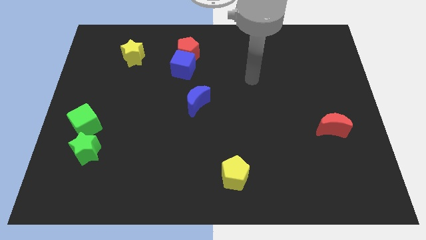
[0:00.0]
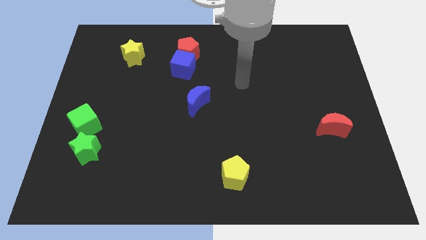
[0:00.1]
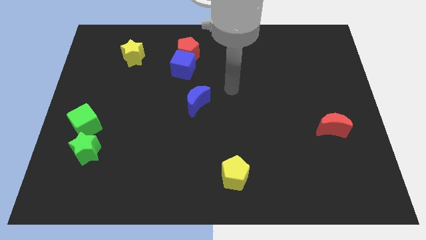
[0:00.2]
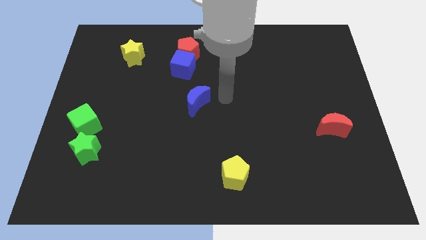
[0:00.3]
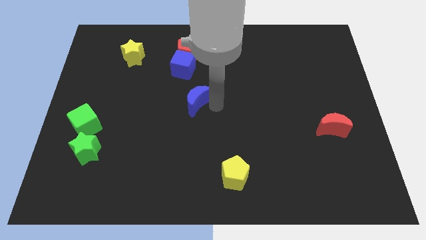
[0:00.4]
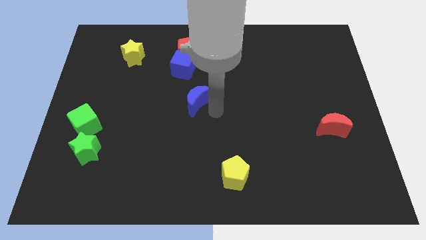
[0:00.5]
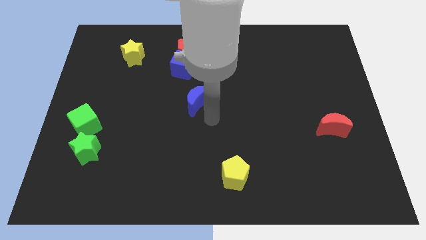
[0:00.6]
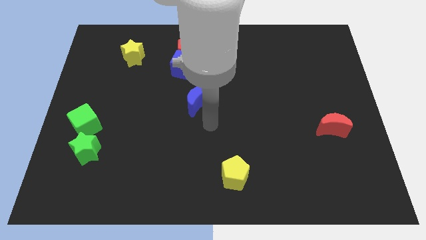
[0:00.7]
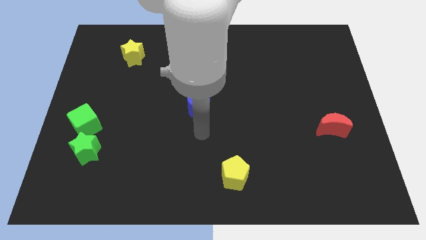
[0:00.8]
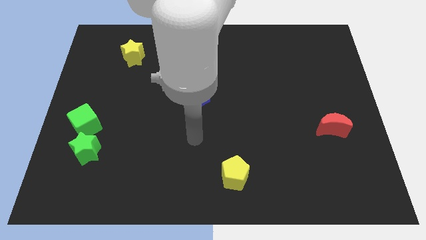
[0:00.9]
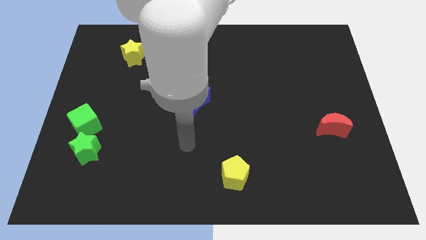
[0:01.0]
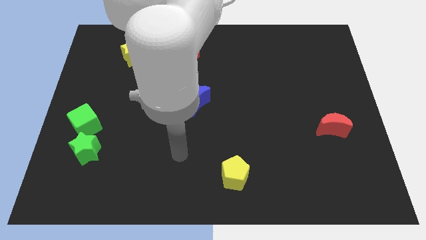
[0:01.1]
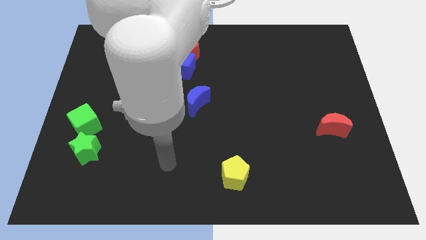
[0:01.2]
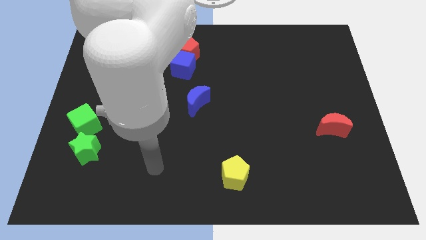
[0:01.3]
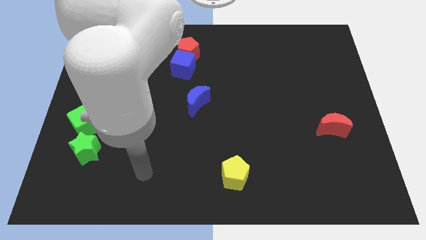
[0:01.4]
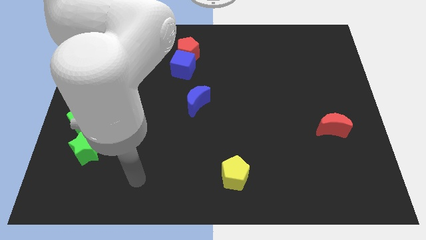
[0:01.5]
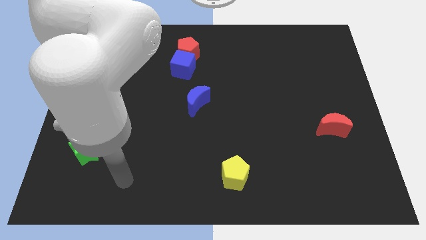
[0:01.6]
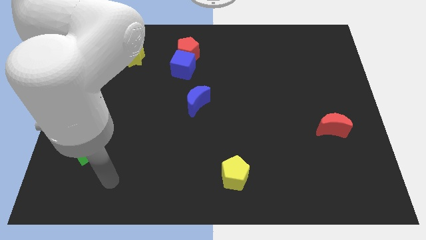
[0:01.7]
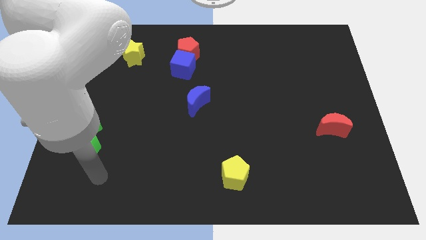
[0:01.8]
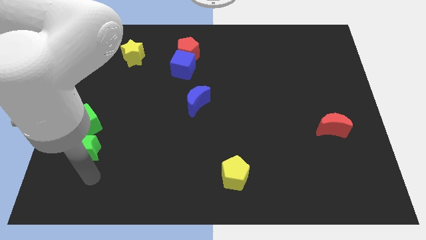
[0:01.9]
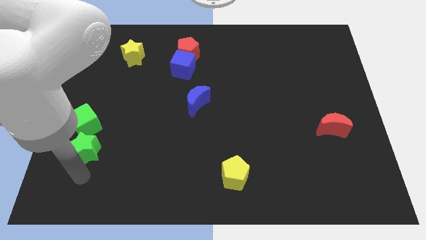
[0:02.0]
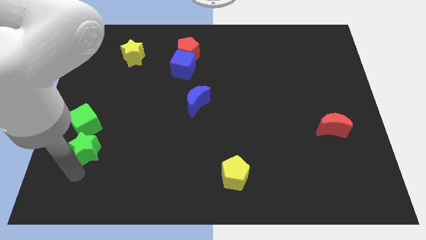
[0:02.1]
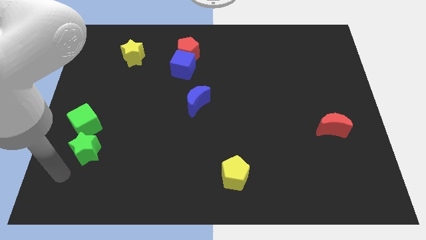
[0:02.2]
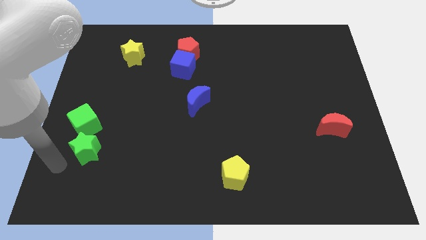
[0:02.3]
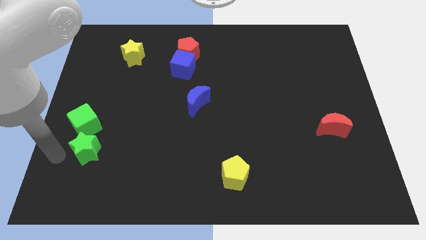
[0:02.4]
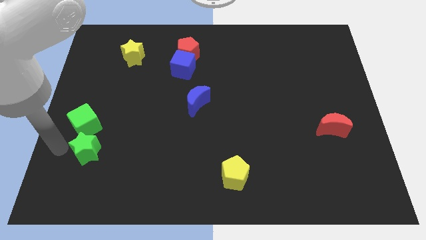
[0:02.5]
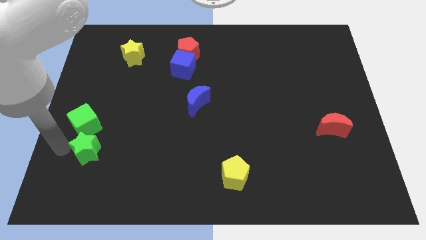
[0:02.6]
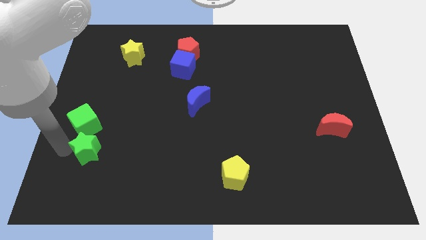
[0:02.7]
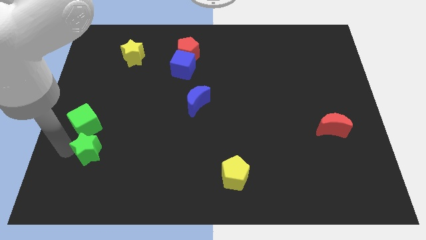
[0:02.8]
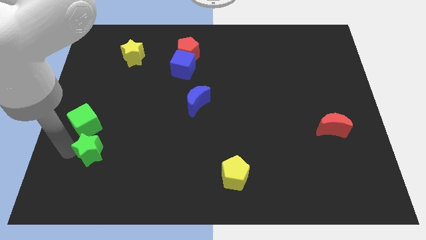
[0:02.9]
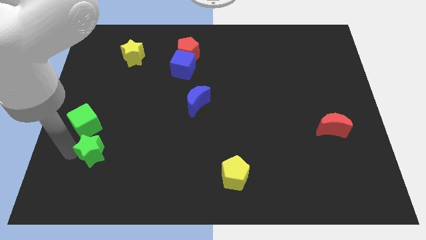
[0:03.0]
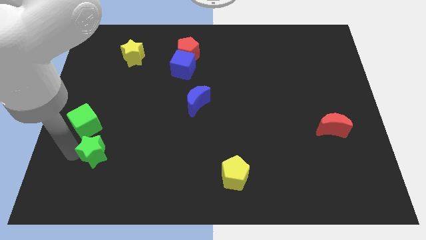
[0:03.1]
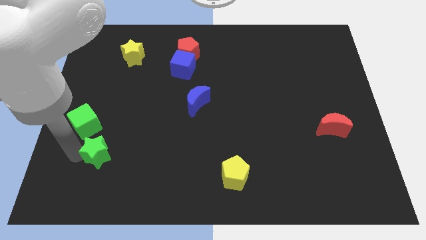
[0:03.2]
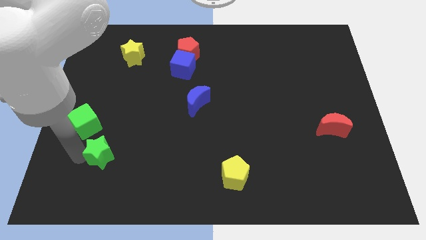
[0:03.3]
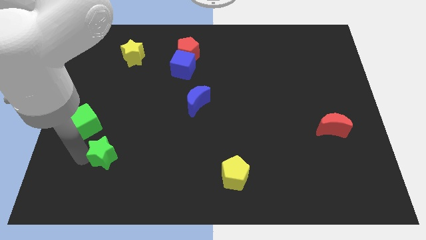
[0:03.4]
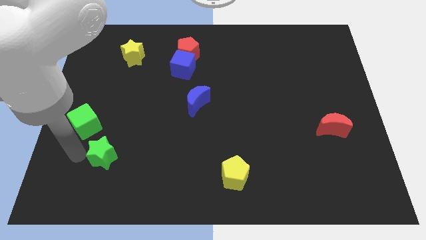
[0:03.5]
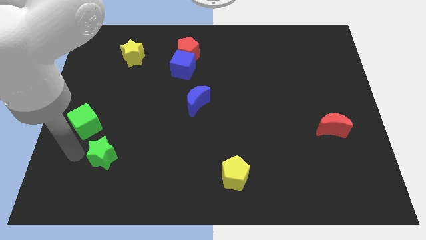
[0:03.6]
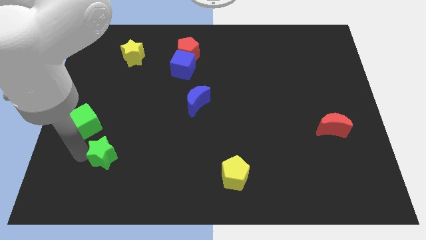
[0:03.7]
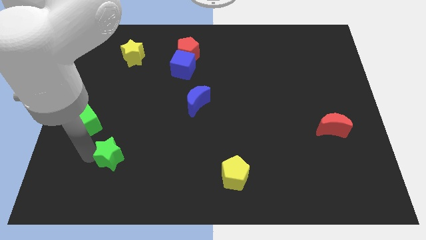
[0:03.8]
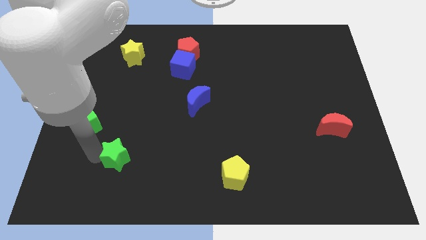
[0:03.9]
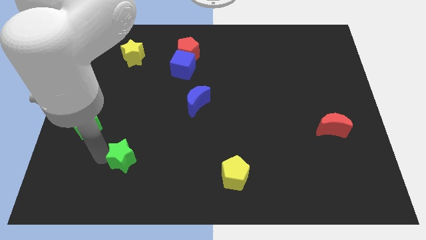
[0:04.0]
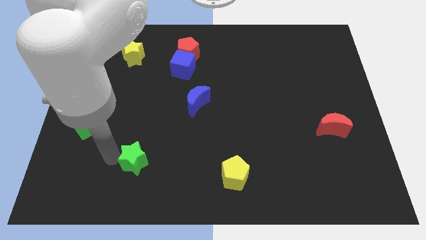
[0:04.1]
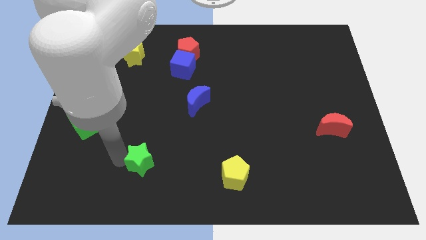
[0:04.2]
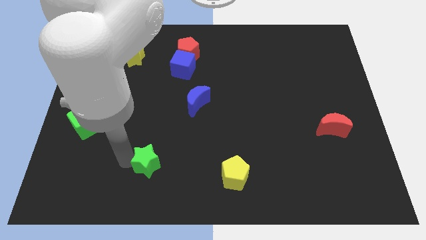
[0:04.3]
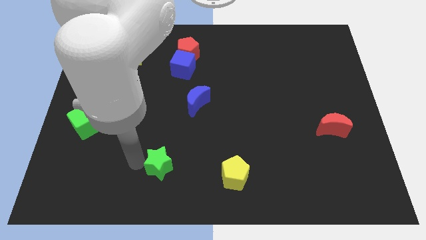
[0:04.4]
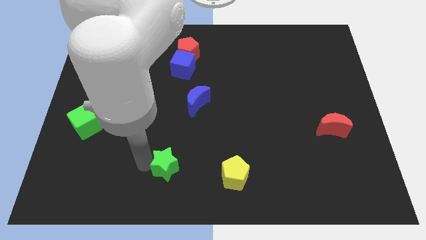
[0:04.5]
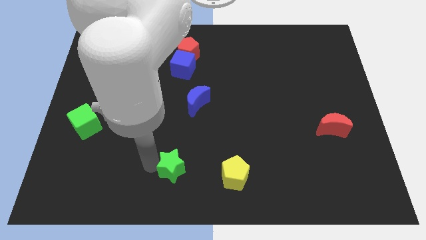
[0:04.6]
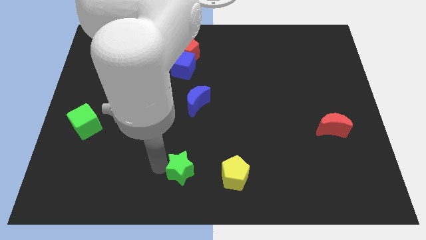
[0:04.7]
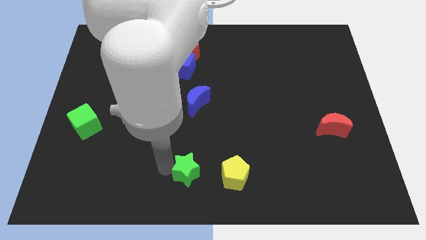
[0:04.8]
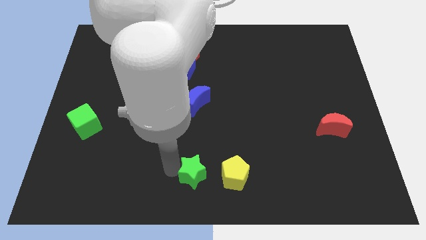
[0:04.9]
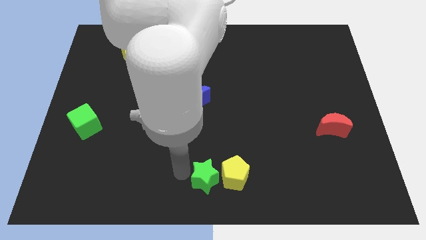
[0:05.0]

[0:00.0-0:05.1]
push the green star towards the yellow pentagon

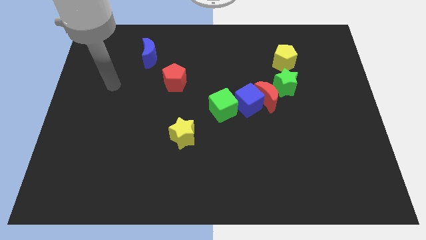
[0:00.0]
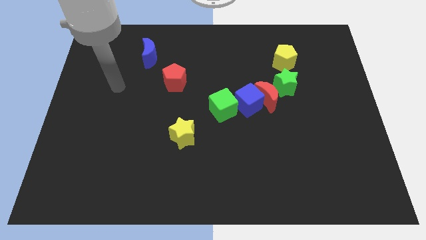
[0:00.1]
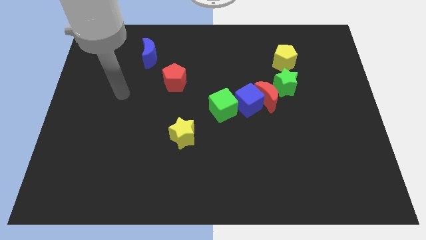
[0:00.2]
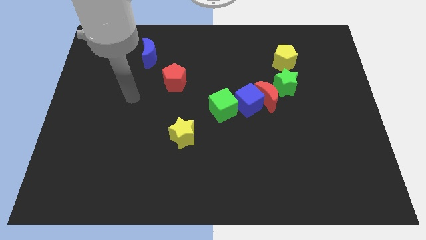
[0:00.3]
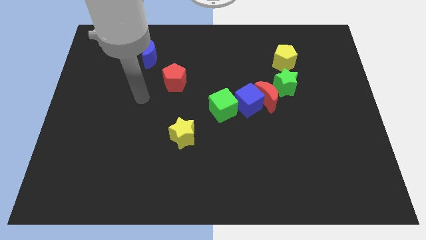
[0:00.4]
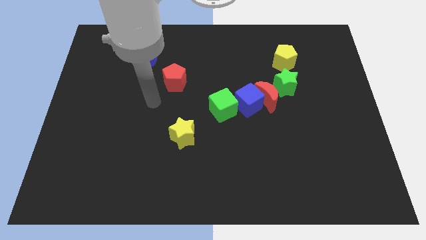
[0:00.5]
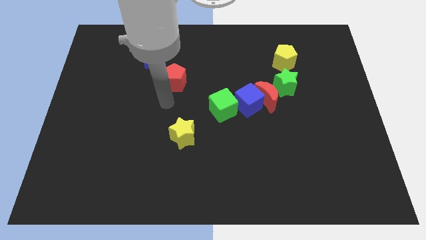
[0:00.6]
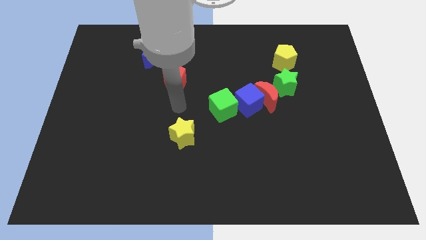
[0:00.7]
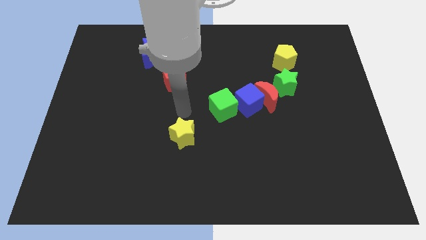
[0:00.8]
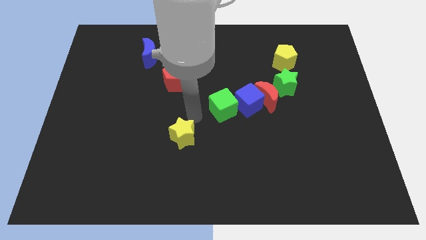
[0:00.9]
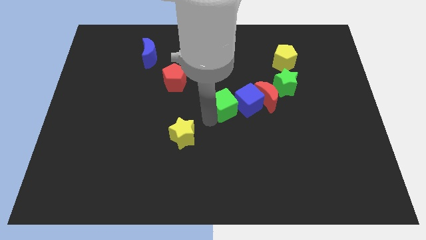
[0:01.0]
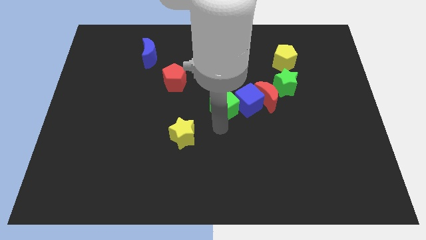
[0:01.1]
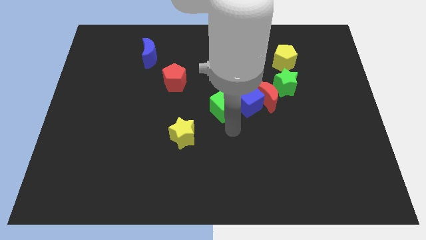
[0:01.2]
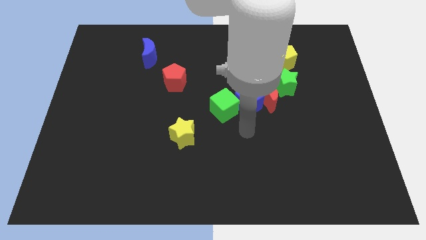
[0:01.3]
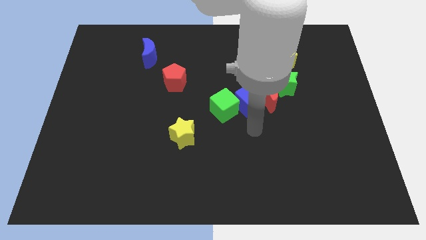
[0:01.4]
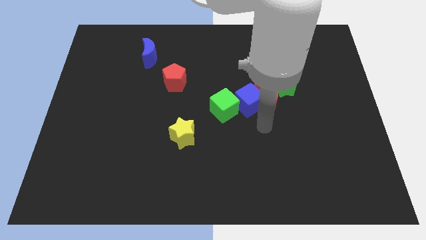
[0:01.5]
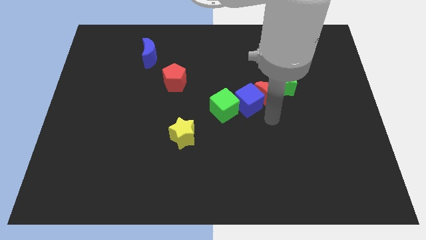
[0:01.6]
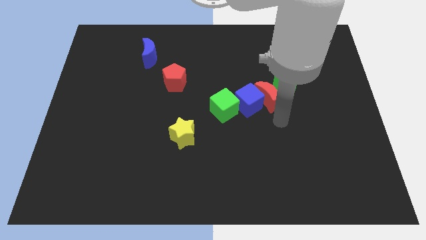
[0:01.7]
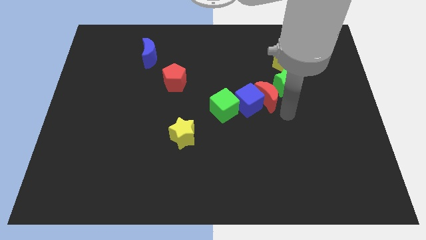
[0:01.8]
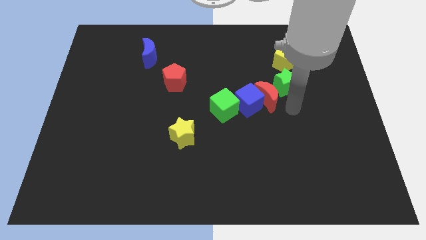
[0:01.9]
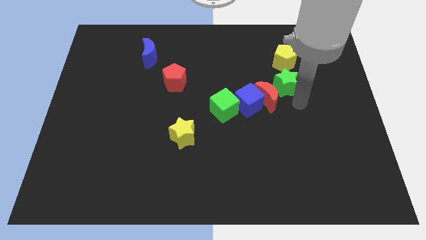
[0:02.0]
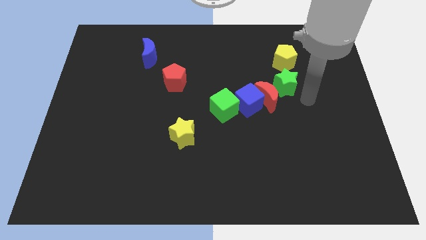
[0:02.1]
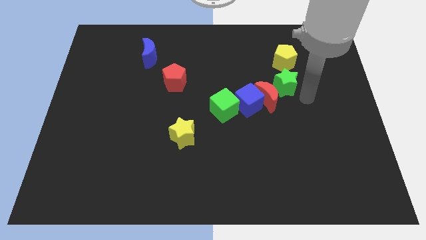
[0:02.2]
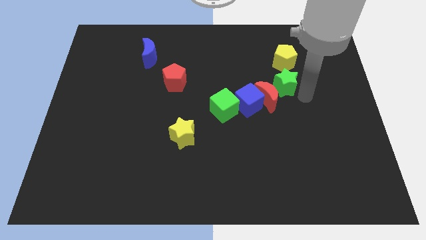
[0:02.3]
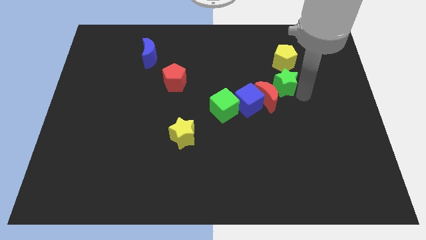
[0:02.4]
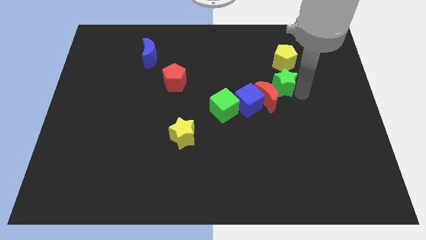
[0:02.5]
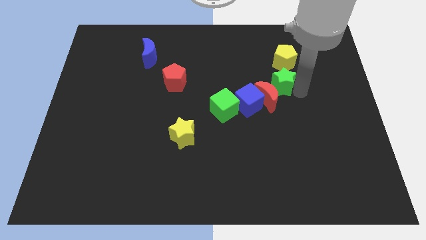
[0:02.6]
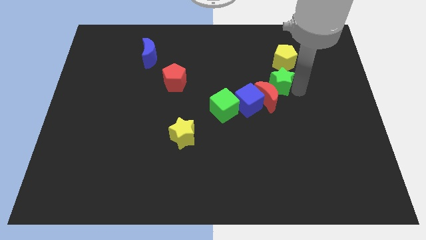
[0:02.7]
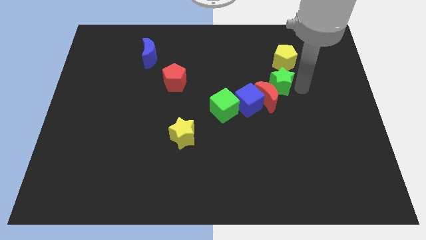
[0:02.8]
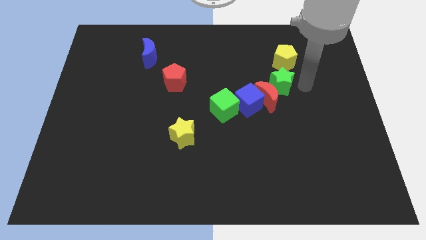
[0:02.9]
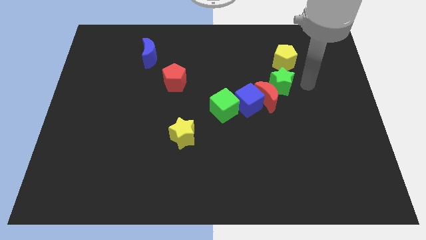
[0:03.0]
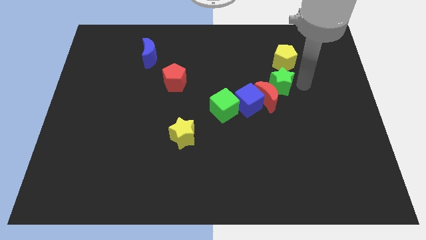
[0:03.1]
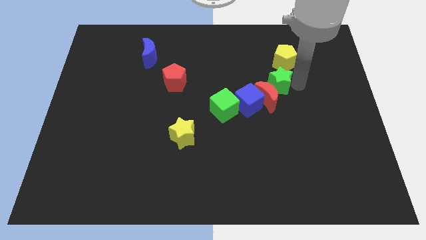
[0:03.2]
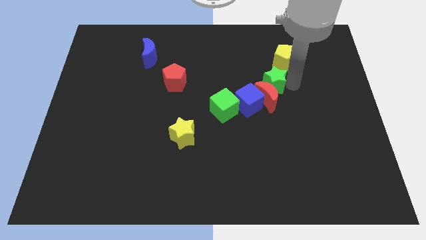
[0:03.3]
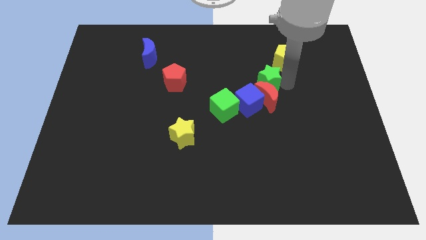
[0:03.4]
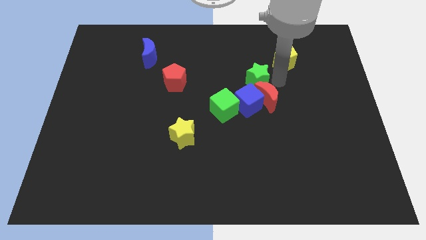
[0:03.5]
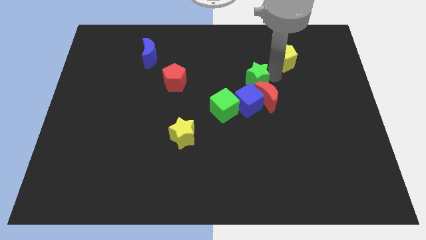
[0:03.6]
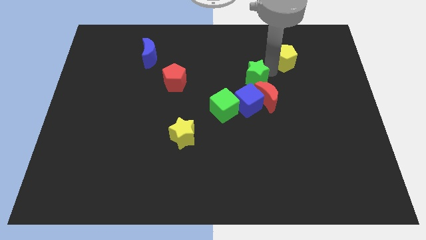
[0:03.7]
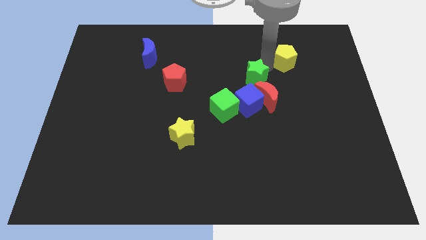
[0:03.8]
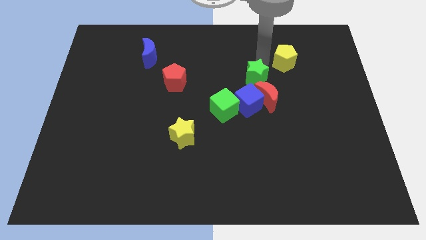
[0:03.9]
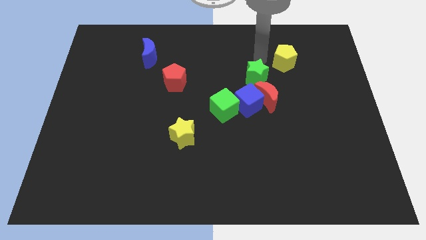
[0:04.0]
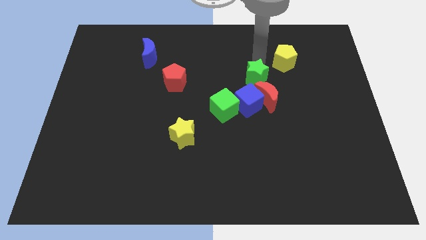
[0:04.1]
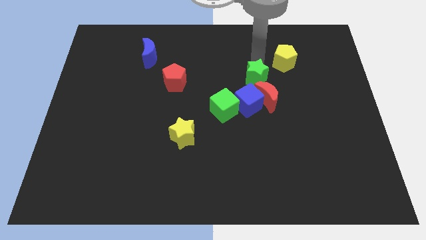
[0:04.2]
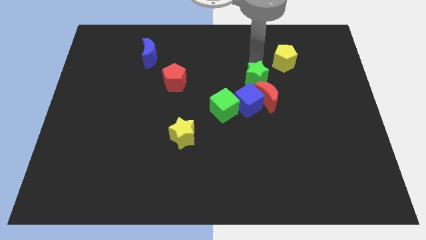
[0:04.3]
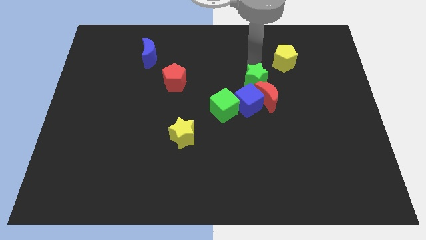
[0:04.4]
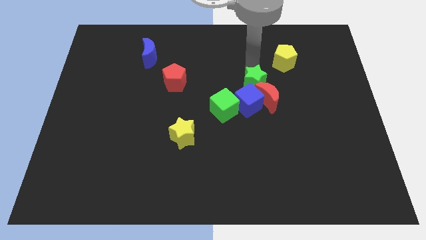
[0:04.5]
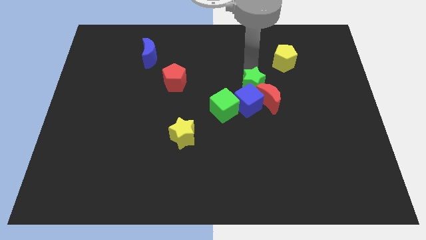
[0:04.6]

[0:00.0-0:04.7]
put the green star to the blue cube
